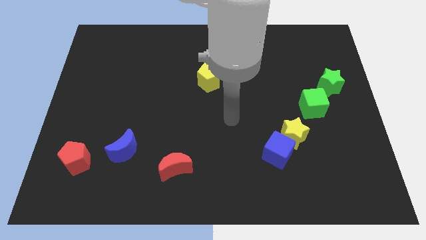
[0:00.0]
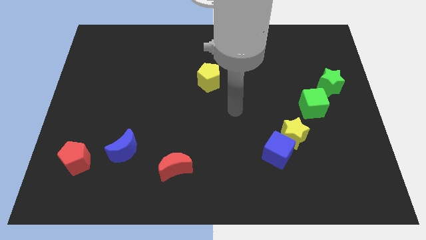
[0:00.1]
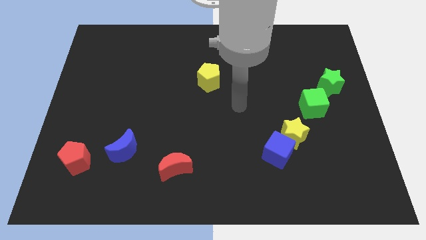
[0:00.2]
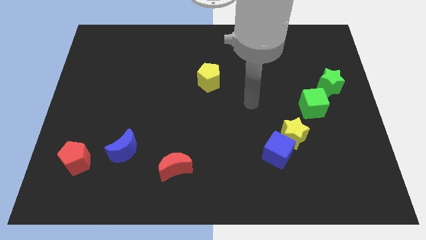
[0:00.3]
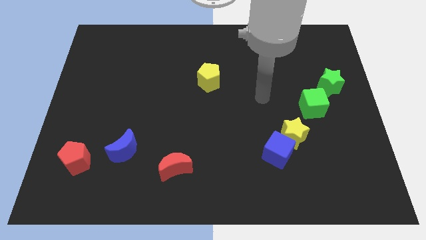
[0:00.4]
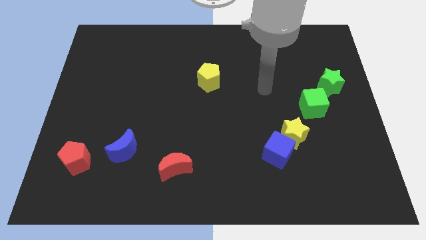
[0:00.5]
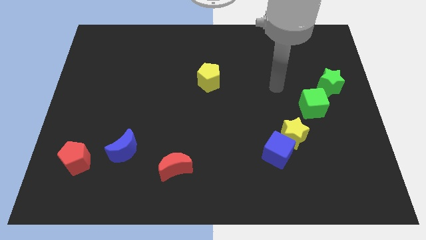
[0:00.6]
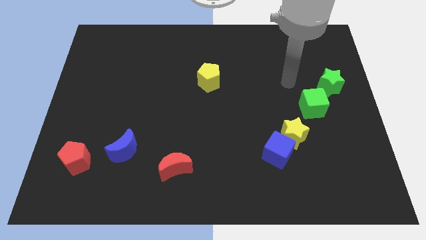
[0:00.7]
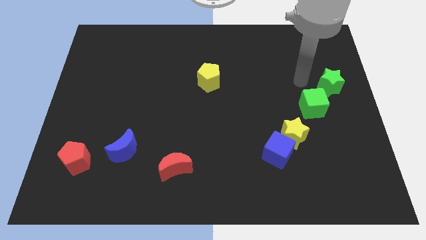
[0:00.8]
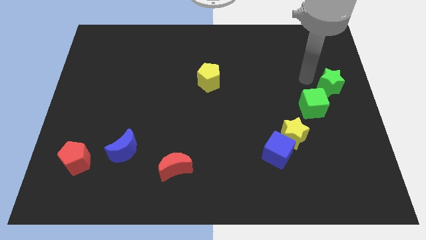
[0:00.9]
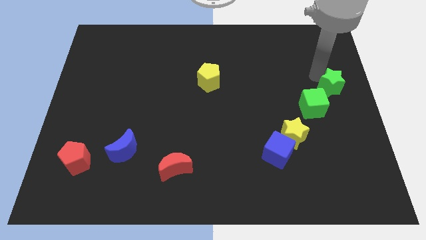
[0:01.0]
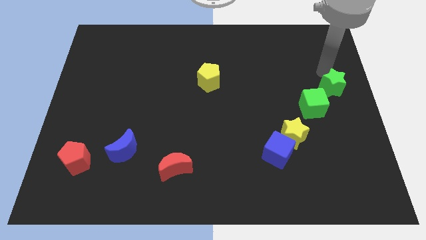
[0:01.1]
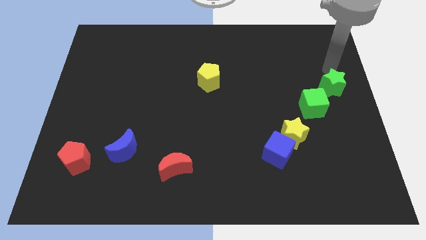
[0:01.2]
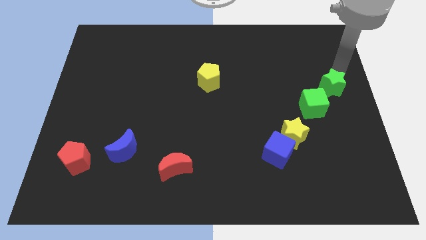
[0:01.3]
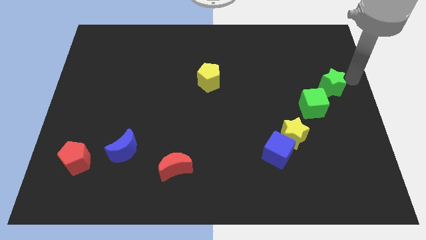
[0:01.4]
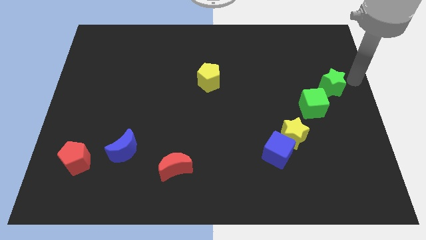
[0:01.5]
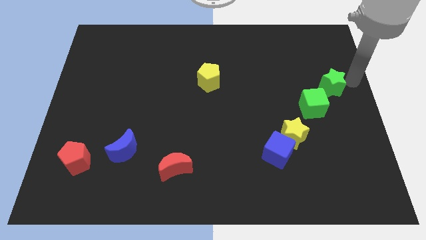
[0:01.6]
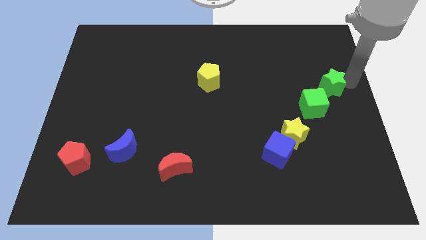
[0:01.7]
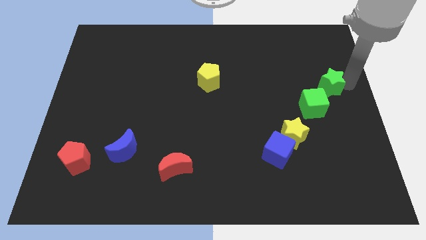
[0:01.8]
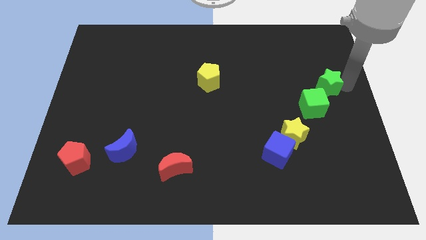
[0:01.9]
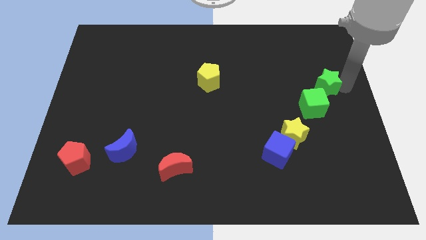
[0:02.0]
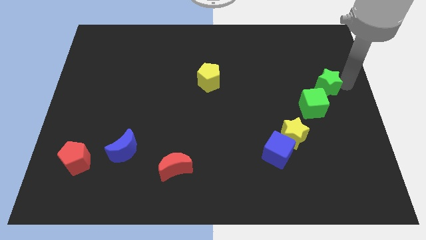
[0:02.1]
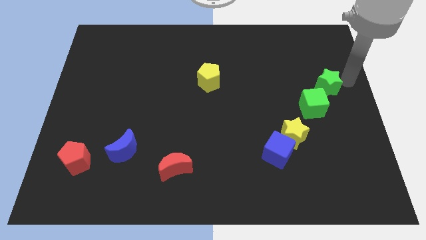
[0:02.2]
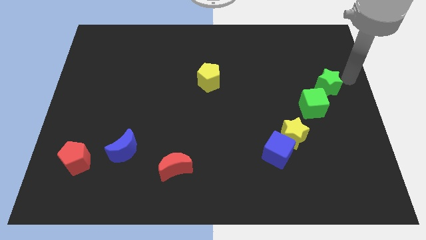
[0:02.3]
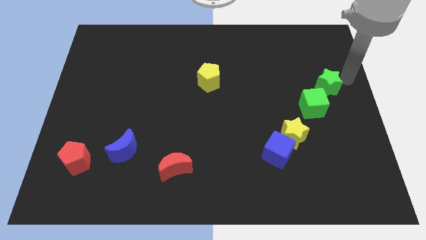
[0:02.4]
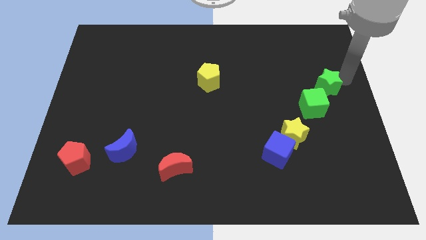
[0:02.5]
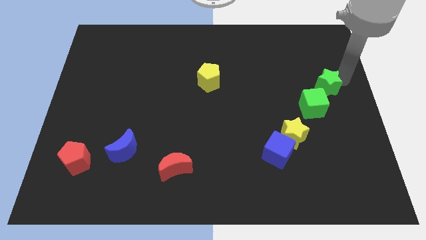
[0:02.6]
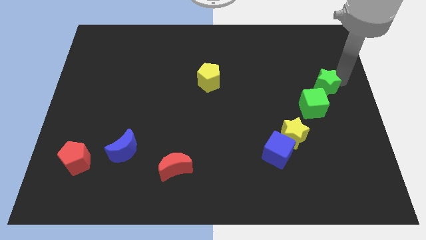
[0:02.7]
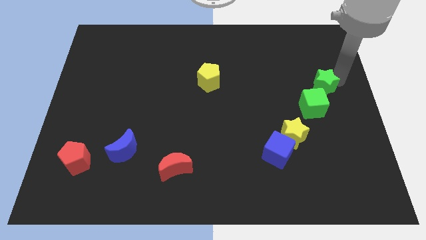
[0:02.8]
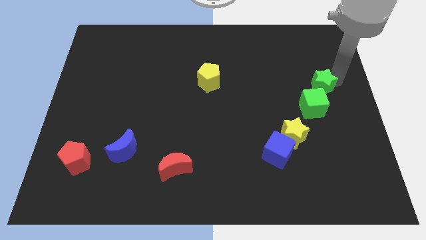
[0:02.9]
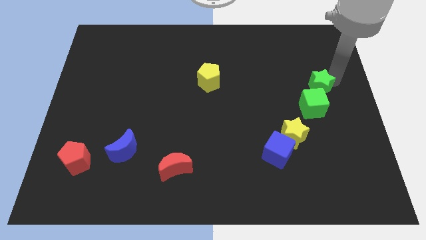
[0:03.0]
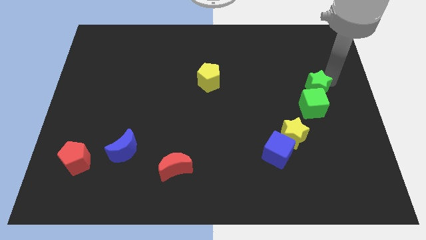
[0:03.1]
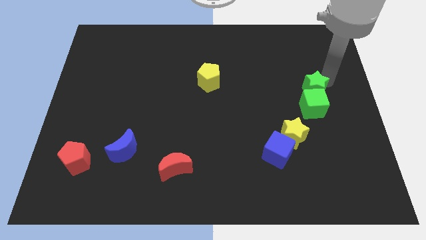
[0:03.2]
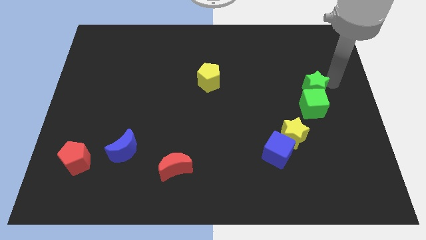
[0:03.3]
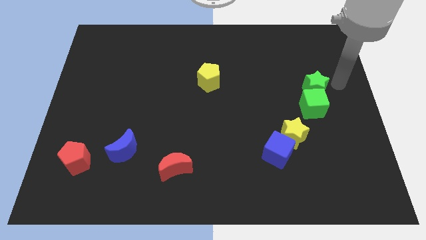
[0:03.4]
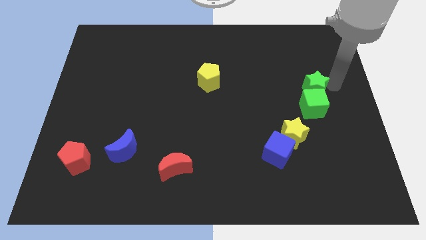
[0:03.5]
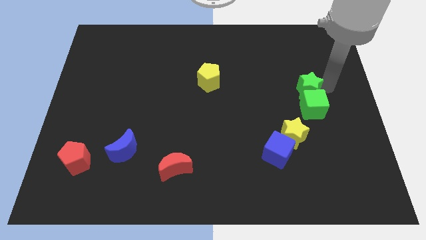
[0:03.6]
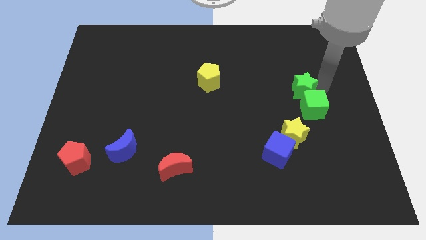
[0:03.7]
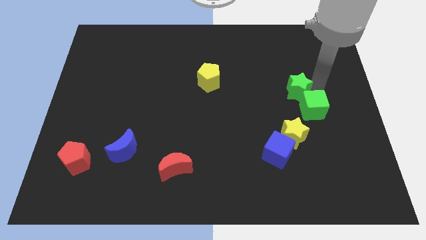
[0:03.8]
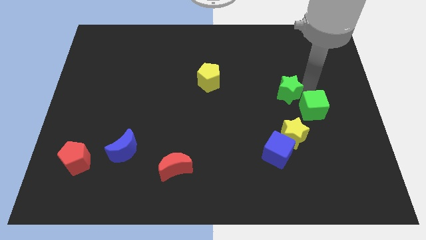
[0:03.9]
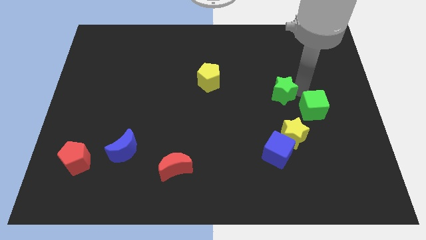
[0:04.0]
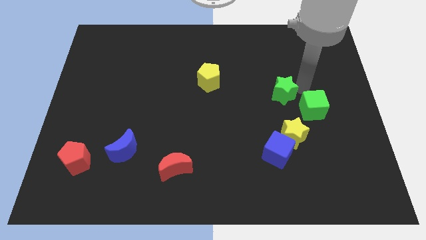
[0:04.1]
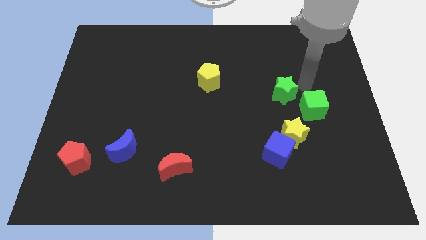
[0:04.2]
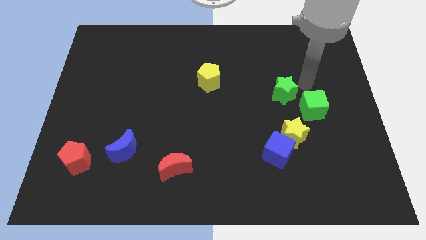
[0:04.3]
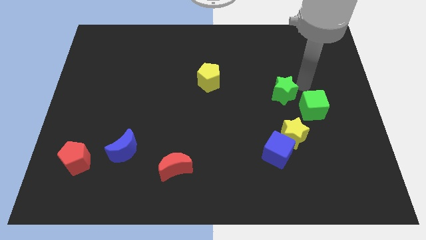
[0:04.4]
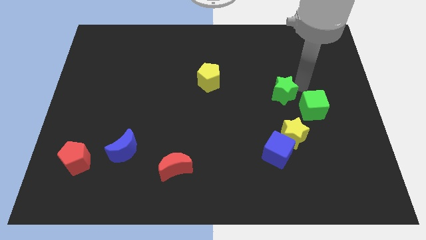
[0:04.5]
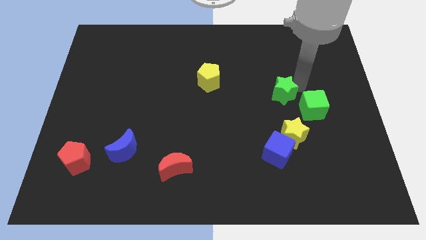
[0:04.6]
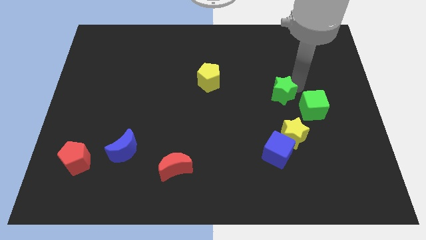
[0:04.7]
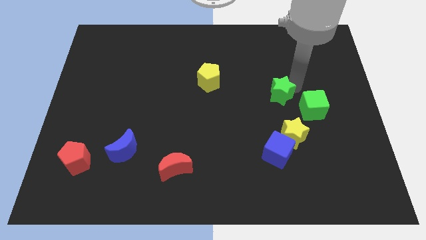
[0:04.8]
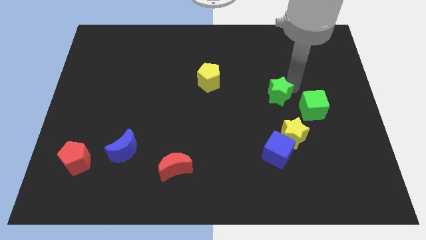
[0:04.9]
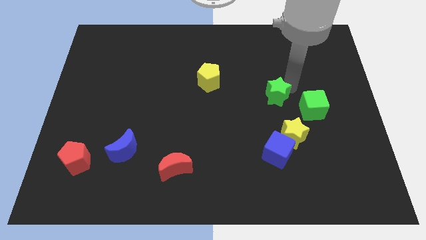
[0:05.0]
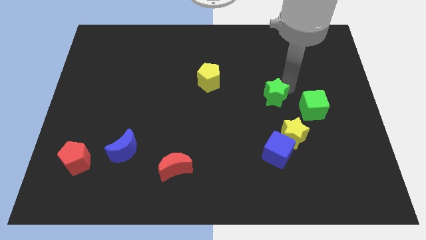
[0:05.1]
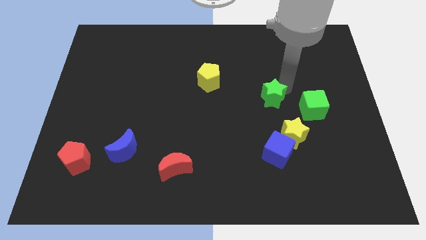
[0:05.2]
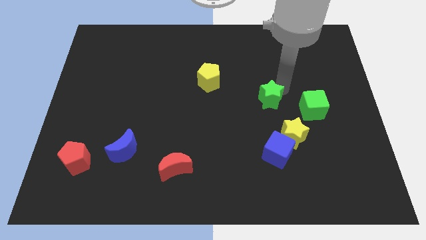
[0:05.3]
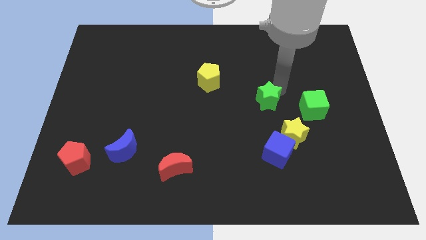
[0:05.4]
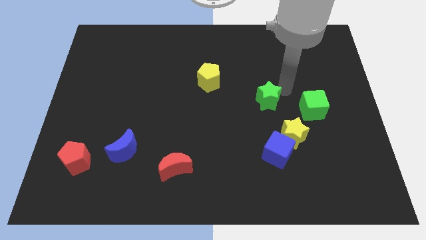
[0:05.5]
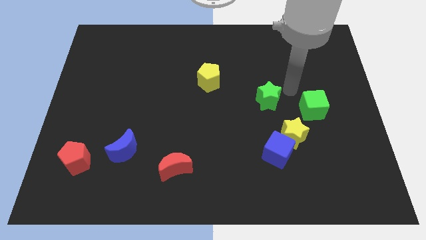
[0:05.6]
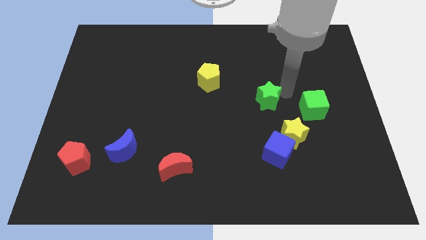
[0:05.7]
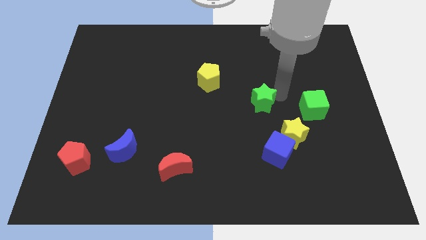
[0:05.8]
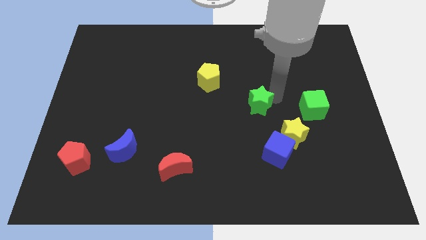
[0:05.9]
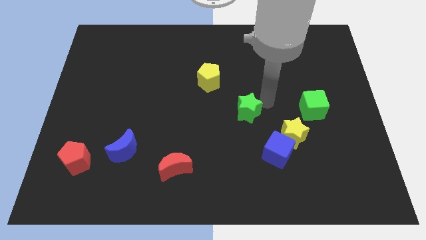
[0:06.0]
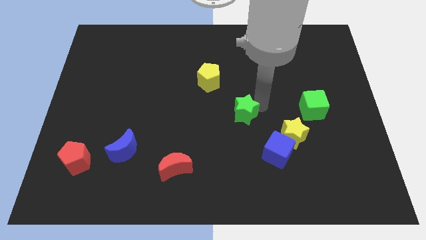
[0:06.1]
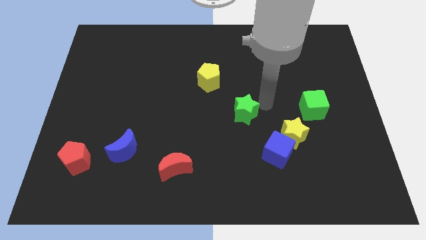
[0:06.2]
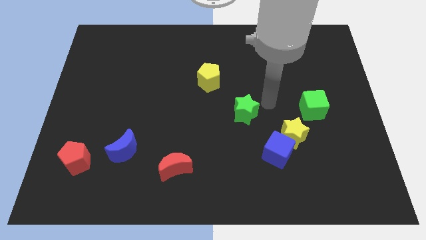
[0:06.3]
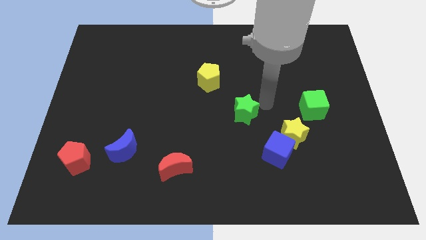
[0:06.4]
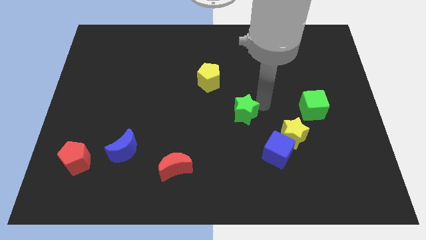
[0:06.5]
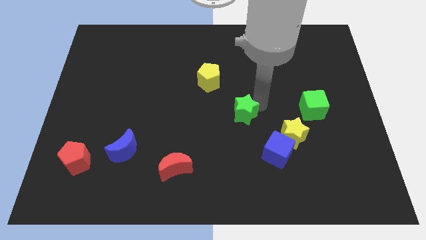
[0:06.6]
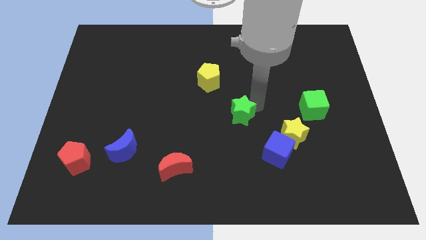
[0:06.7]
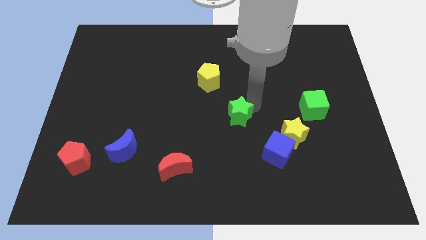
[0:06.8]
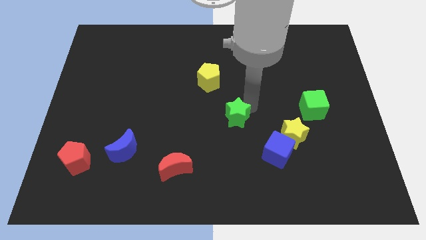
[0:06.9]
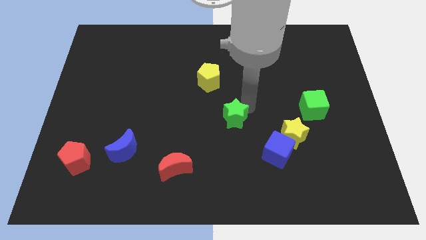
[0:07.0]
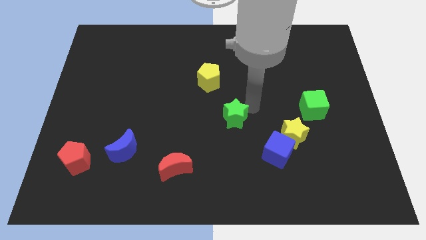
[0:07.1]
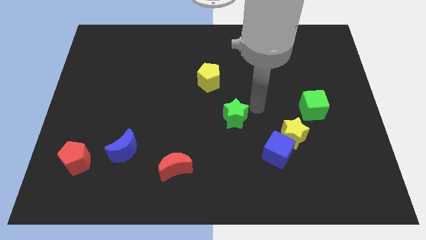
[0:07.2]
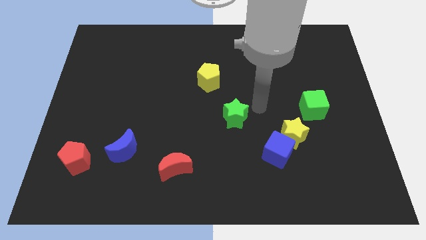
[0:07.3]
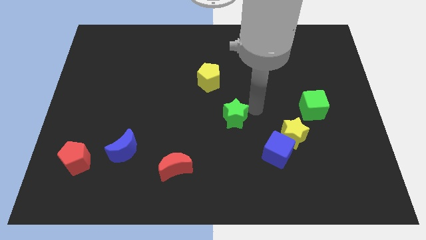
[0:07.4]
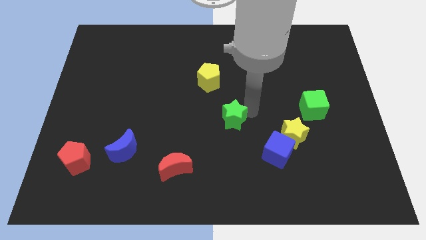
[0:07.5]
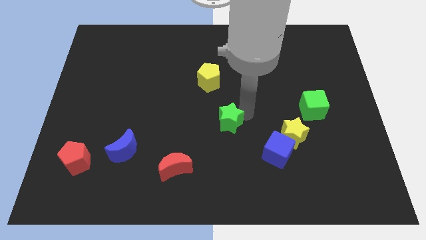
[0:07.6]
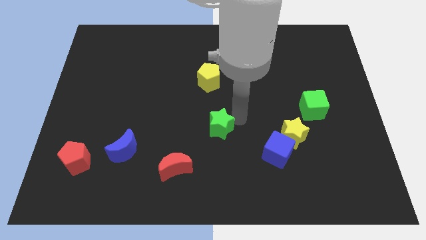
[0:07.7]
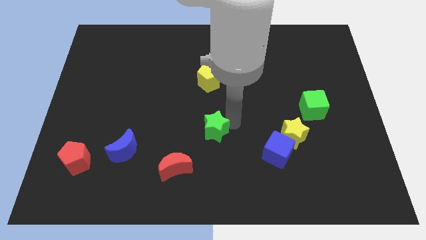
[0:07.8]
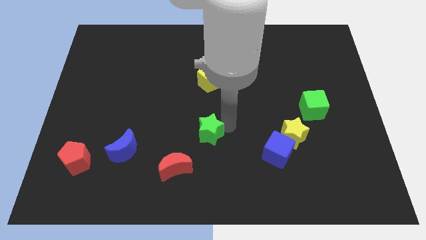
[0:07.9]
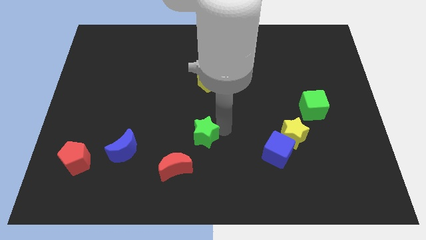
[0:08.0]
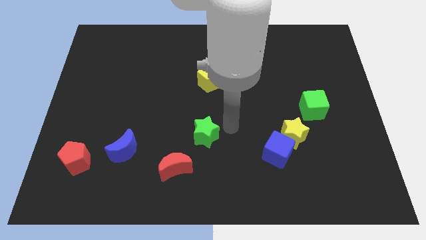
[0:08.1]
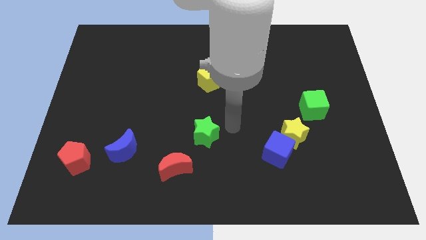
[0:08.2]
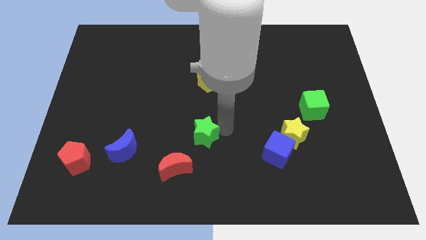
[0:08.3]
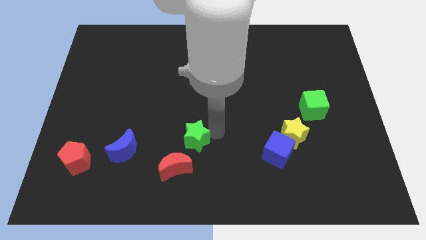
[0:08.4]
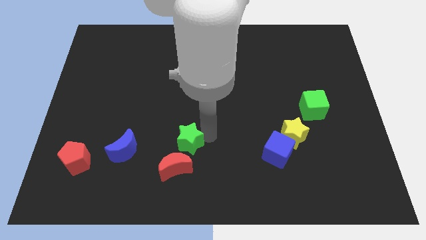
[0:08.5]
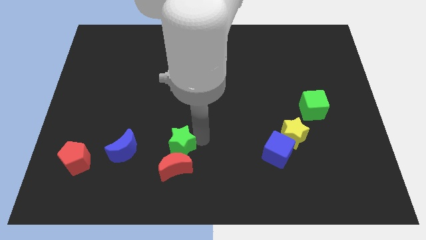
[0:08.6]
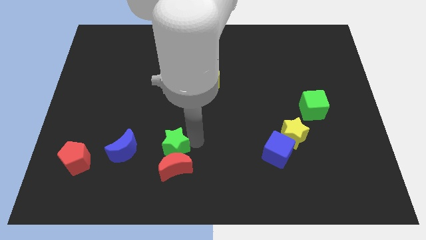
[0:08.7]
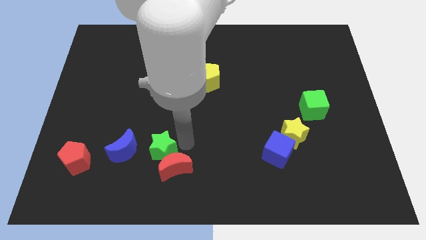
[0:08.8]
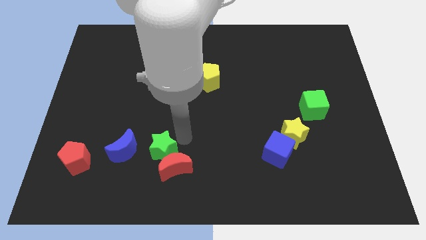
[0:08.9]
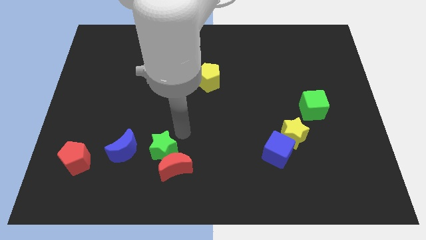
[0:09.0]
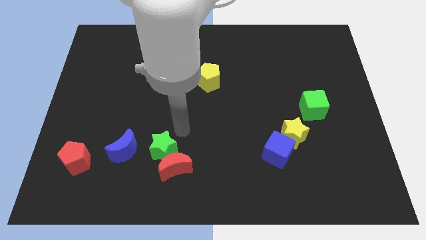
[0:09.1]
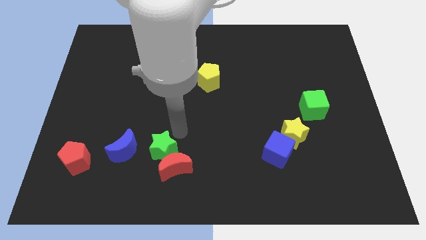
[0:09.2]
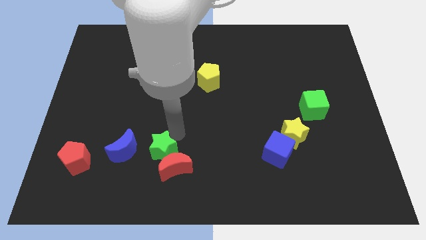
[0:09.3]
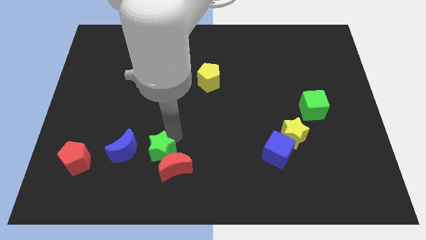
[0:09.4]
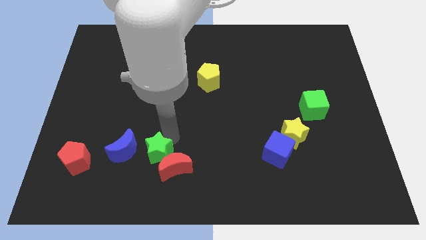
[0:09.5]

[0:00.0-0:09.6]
slide the green star diagonally down and to the right of the blue moon
